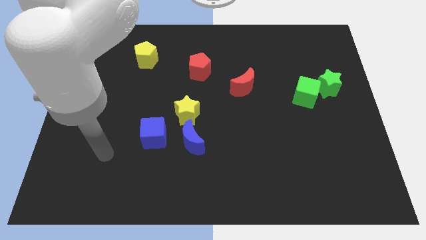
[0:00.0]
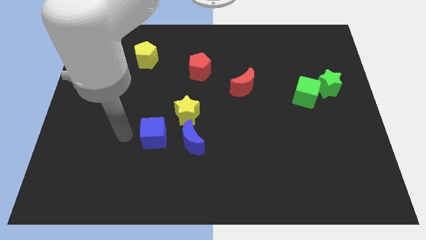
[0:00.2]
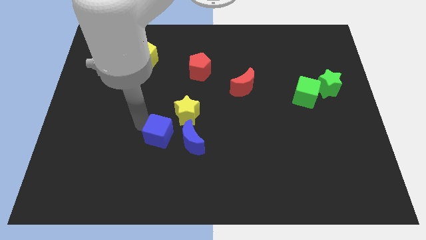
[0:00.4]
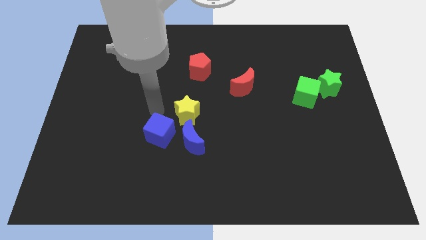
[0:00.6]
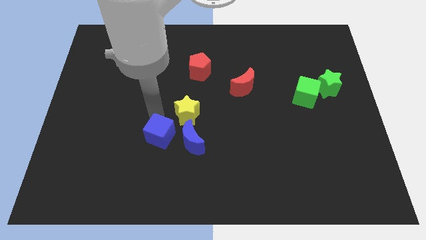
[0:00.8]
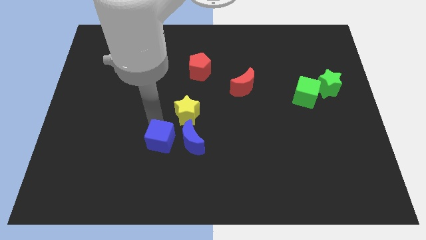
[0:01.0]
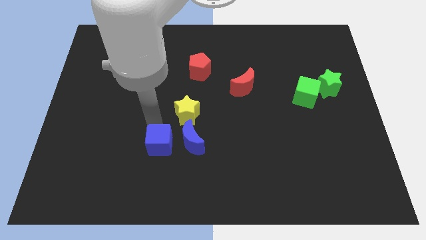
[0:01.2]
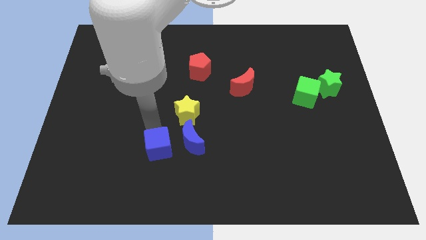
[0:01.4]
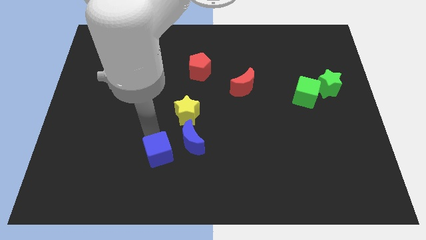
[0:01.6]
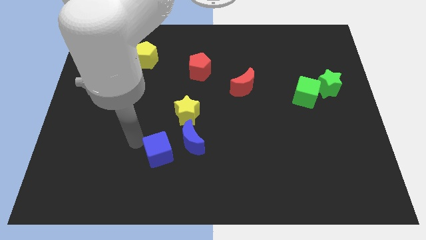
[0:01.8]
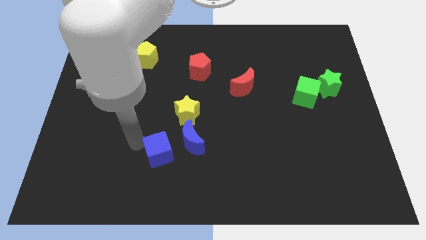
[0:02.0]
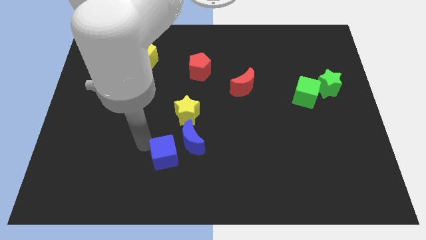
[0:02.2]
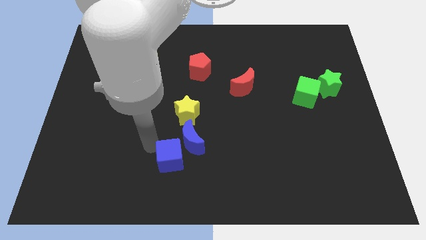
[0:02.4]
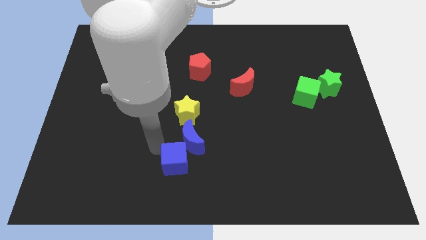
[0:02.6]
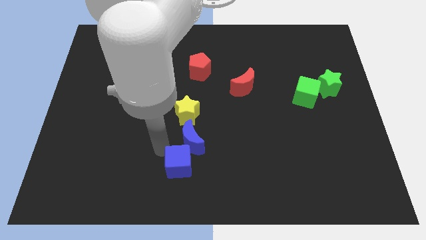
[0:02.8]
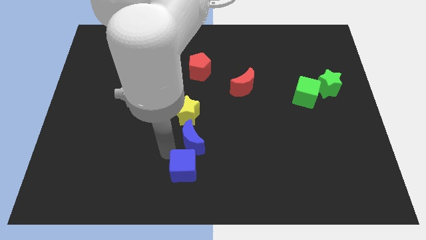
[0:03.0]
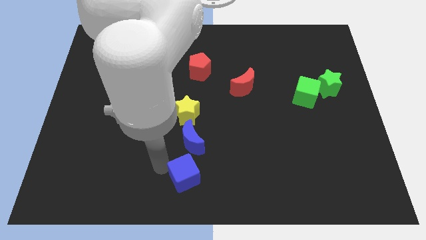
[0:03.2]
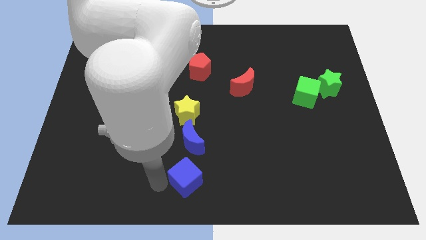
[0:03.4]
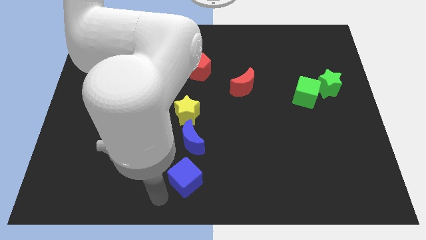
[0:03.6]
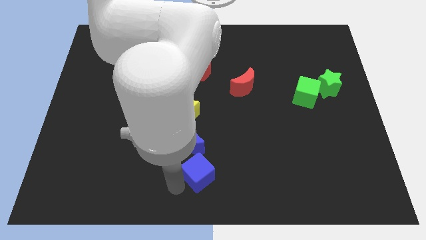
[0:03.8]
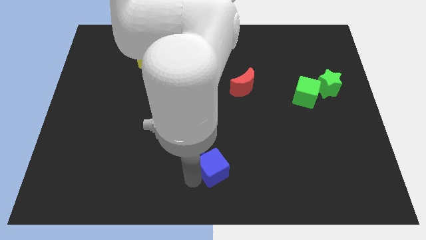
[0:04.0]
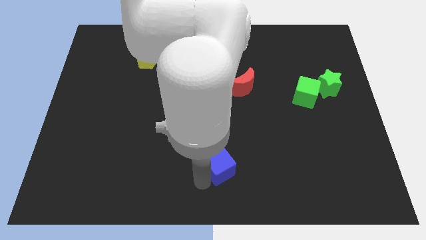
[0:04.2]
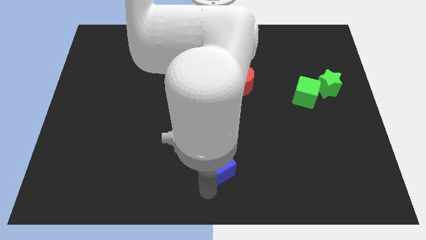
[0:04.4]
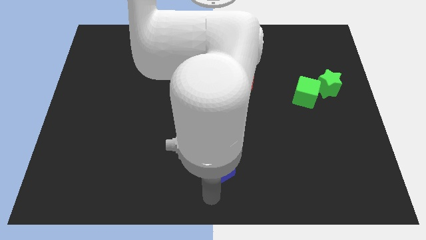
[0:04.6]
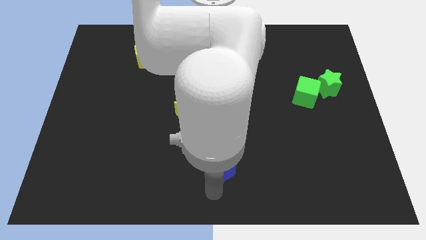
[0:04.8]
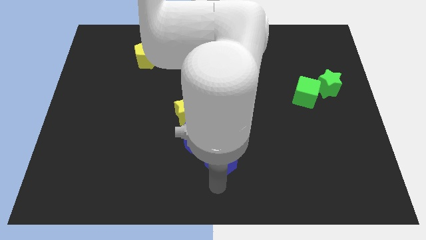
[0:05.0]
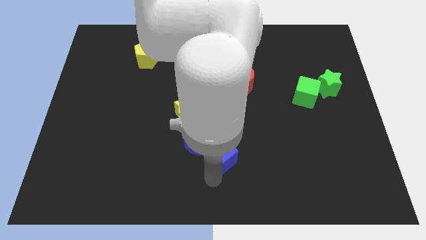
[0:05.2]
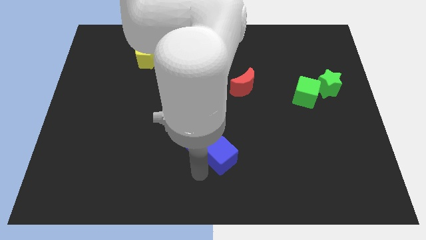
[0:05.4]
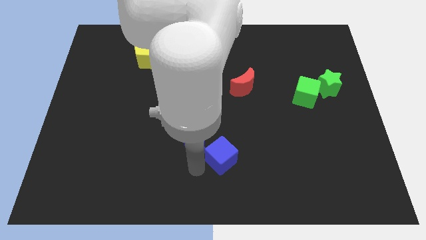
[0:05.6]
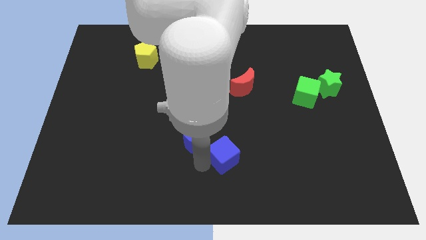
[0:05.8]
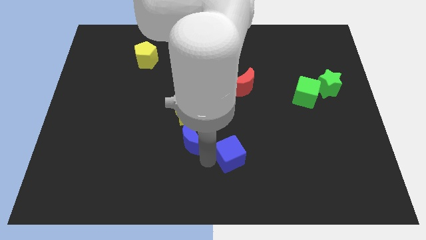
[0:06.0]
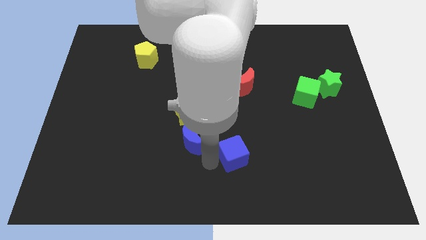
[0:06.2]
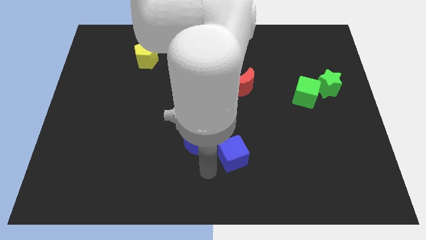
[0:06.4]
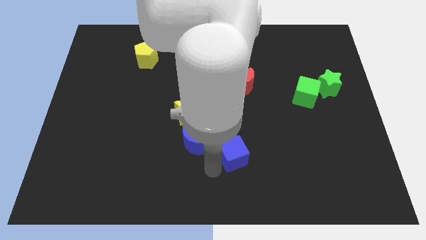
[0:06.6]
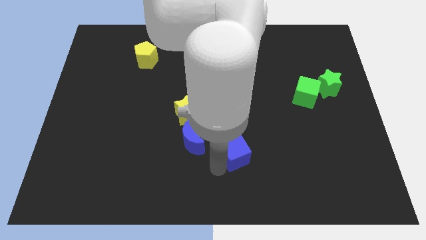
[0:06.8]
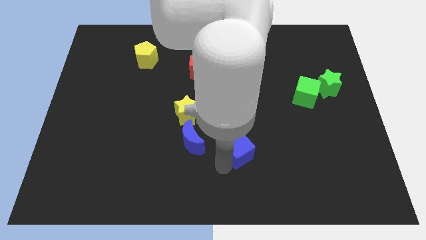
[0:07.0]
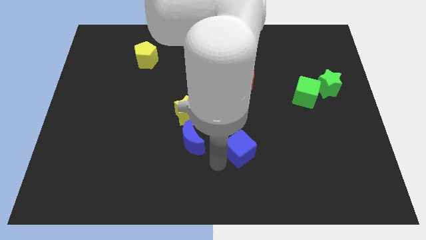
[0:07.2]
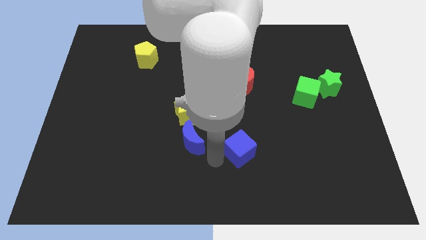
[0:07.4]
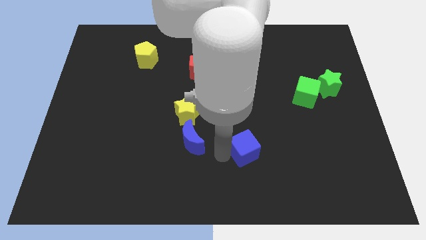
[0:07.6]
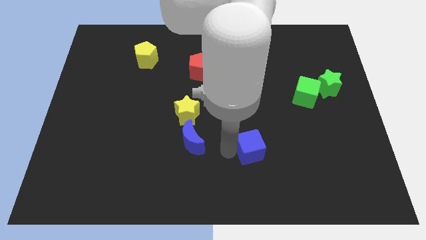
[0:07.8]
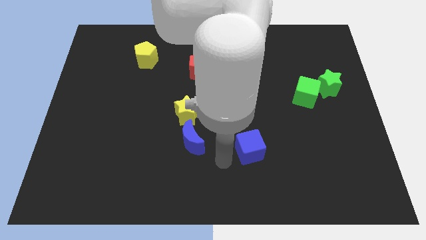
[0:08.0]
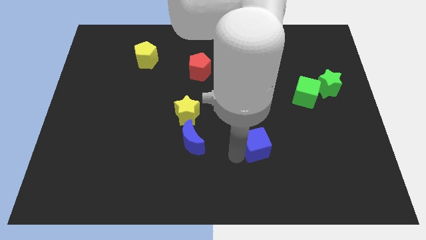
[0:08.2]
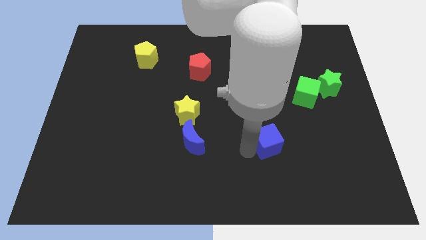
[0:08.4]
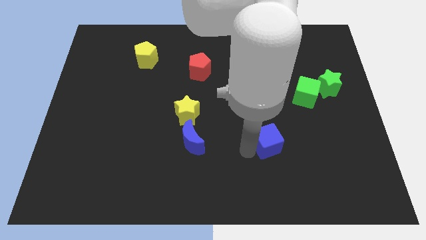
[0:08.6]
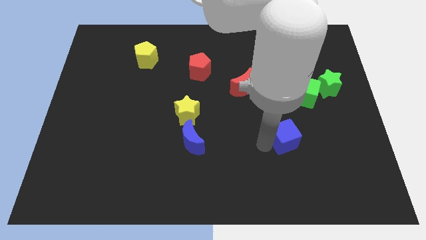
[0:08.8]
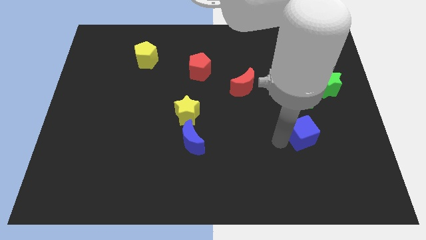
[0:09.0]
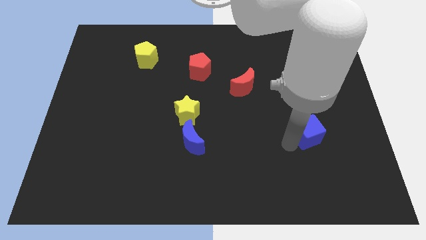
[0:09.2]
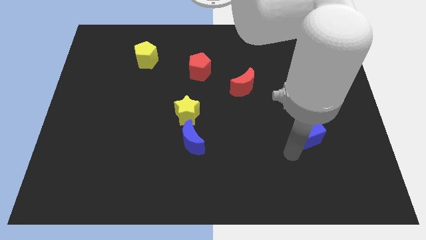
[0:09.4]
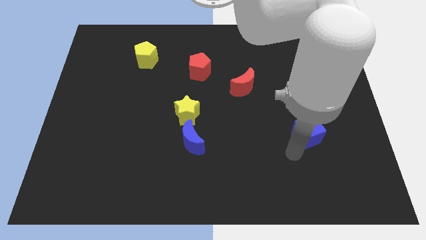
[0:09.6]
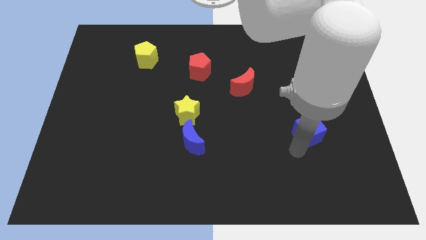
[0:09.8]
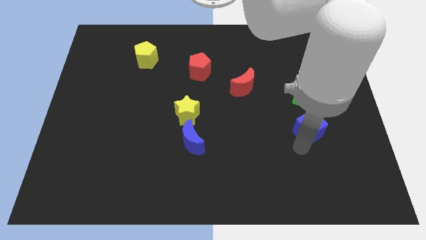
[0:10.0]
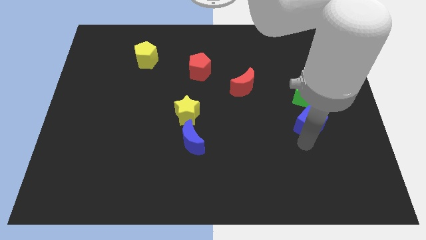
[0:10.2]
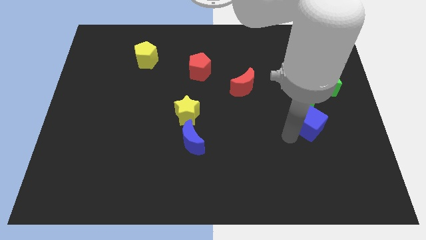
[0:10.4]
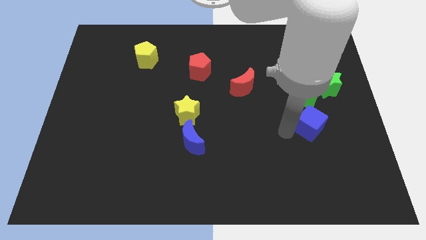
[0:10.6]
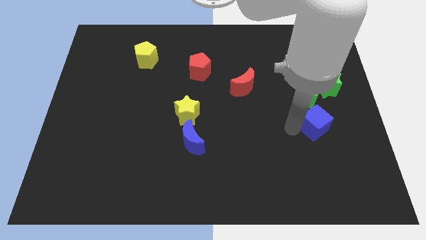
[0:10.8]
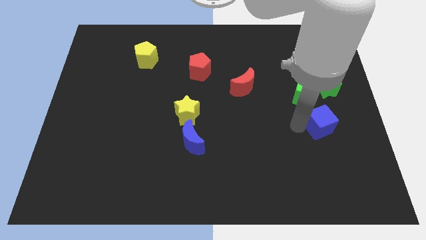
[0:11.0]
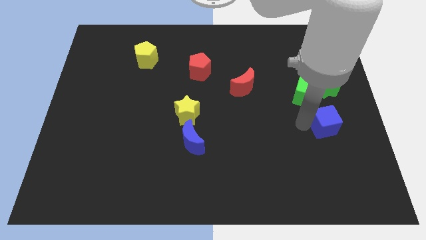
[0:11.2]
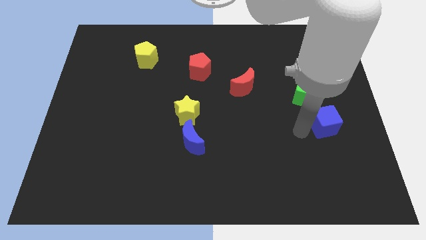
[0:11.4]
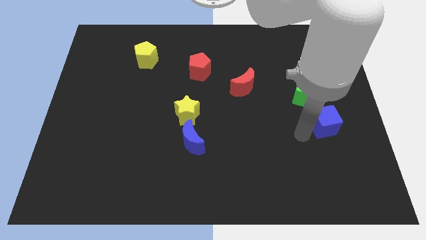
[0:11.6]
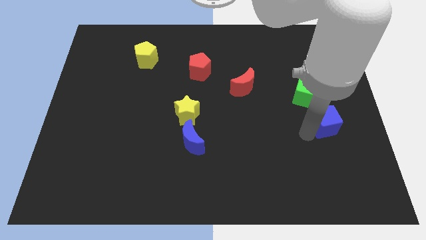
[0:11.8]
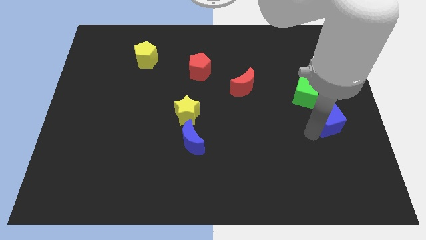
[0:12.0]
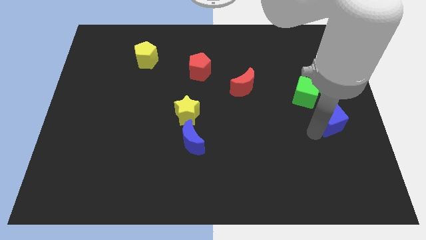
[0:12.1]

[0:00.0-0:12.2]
move the blue cube to the right side
